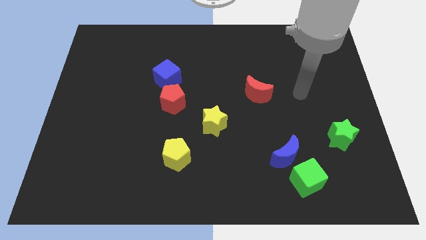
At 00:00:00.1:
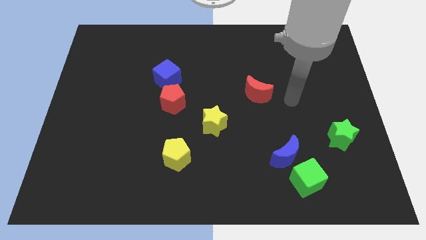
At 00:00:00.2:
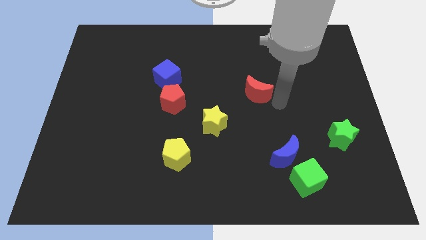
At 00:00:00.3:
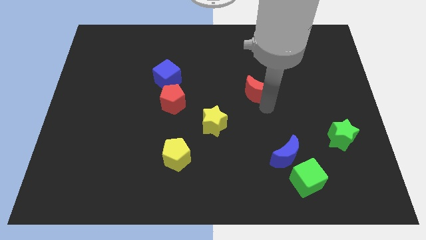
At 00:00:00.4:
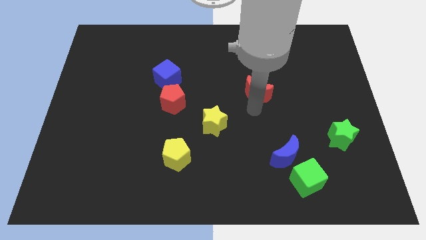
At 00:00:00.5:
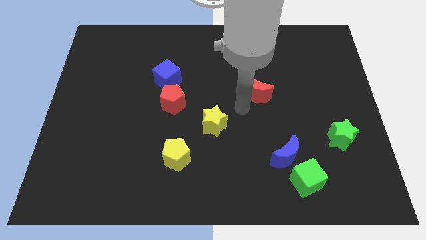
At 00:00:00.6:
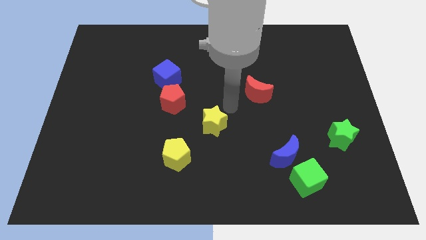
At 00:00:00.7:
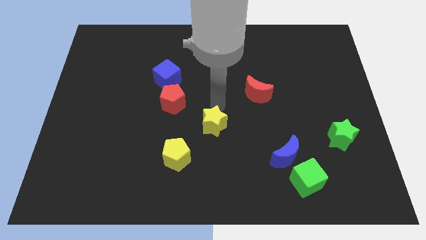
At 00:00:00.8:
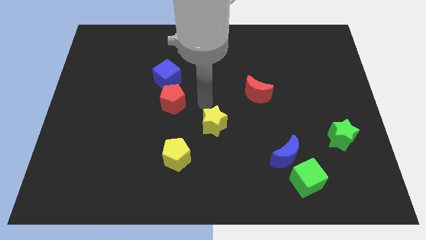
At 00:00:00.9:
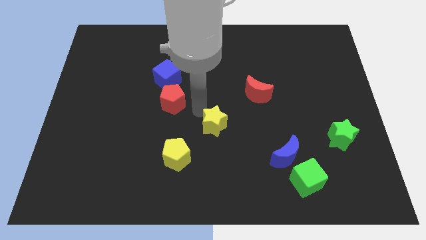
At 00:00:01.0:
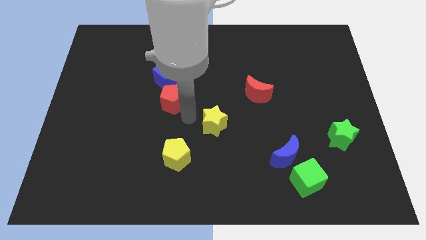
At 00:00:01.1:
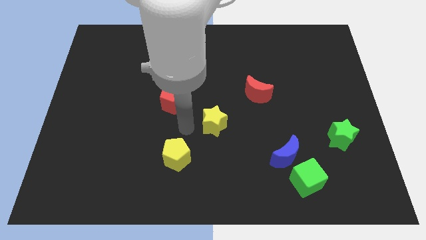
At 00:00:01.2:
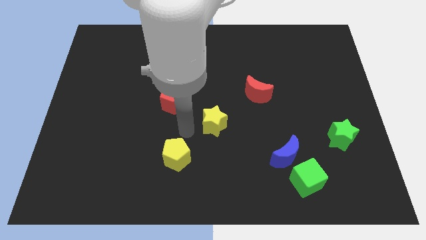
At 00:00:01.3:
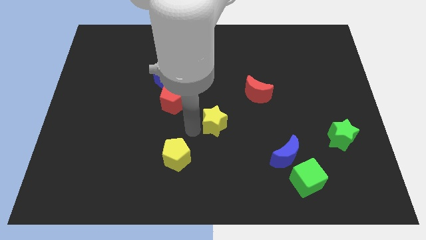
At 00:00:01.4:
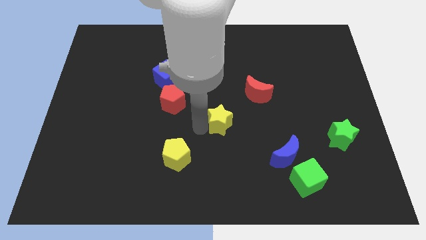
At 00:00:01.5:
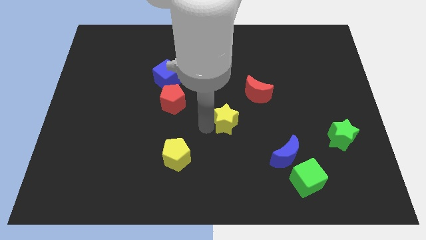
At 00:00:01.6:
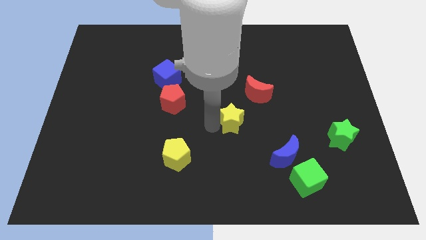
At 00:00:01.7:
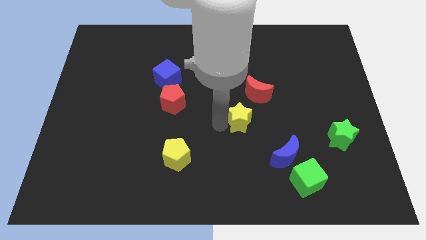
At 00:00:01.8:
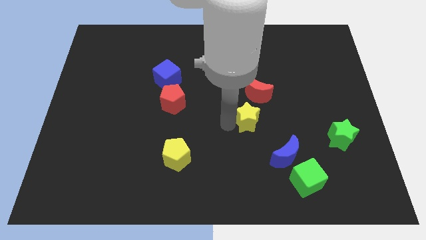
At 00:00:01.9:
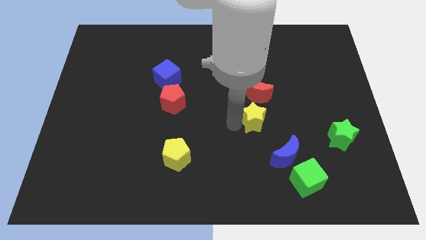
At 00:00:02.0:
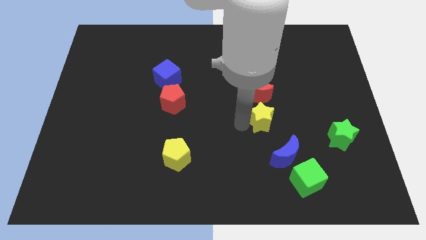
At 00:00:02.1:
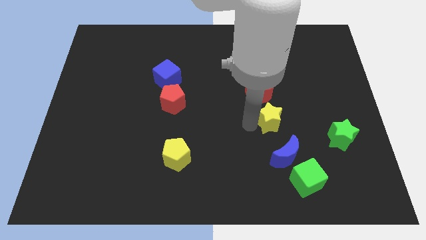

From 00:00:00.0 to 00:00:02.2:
slide the yellow star a little up and right diagonally

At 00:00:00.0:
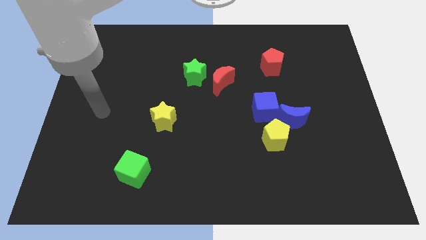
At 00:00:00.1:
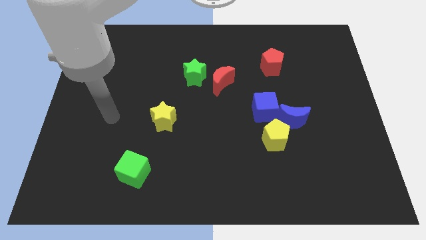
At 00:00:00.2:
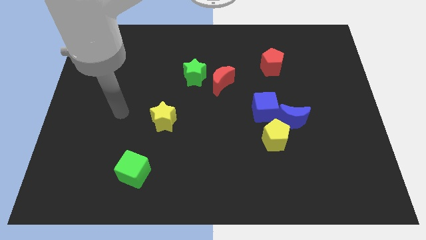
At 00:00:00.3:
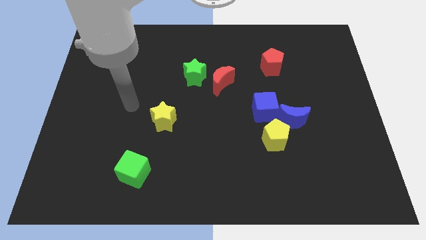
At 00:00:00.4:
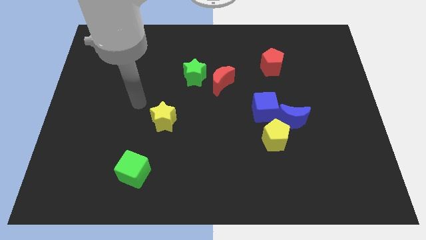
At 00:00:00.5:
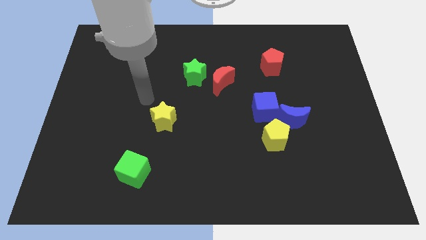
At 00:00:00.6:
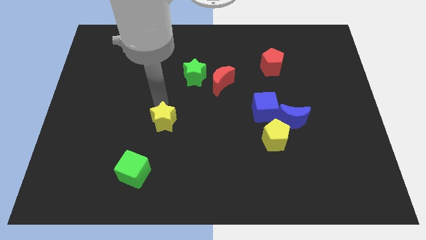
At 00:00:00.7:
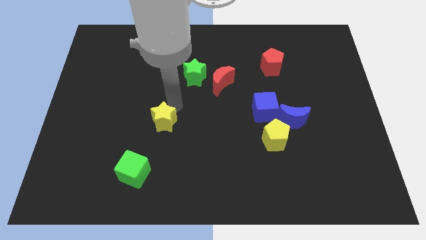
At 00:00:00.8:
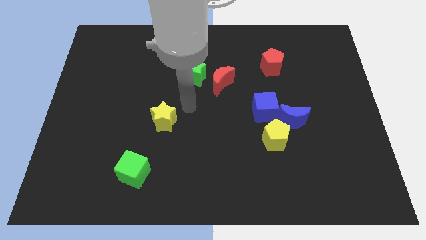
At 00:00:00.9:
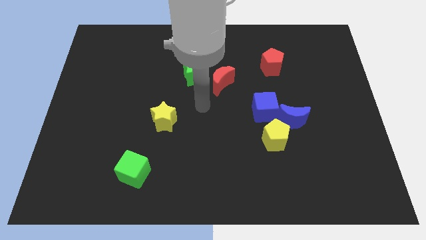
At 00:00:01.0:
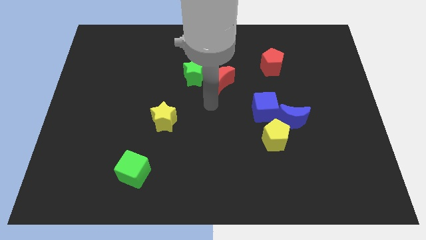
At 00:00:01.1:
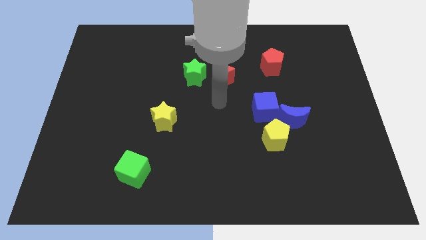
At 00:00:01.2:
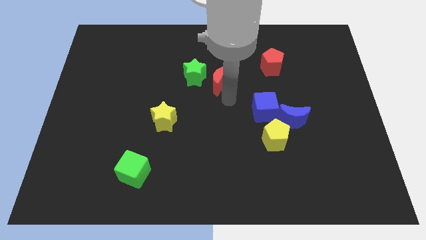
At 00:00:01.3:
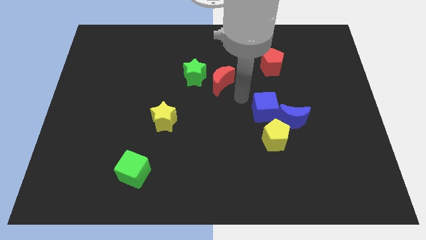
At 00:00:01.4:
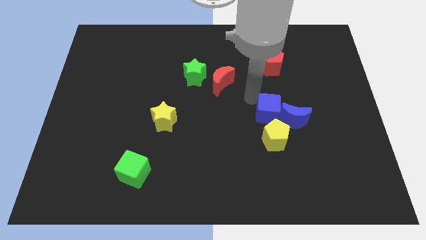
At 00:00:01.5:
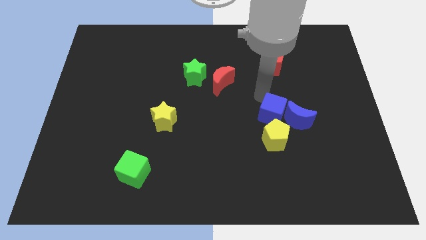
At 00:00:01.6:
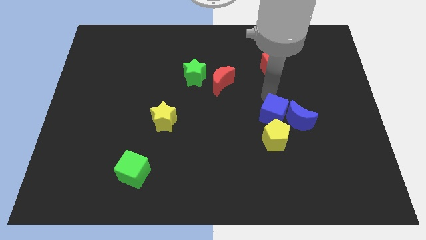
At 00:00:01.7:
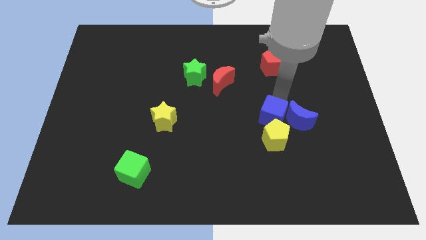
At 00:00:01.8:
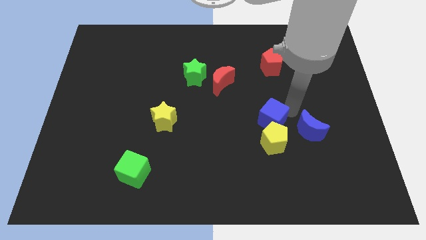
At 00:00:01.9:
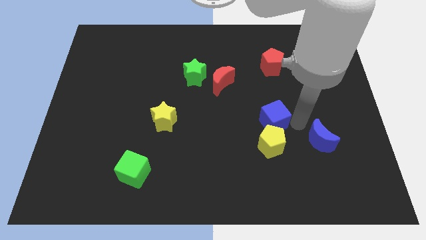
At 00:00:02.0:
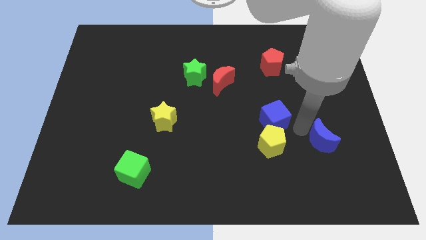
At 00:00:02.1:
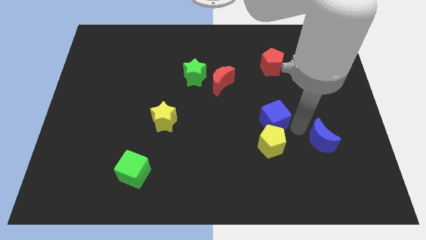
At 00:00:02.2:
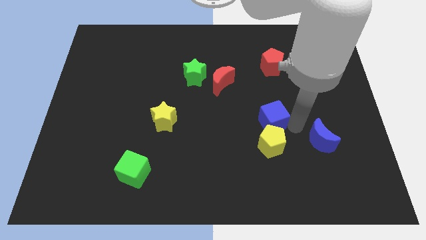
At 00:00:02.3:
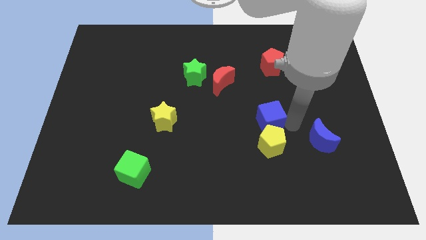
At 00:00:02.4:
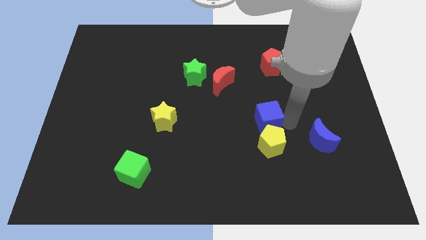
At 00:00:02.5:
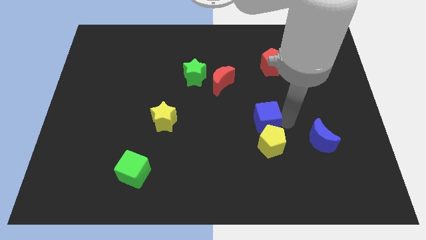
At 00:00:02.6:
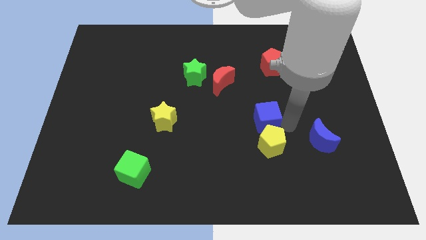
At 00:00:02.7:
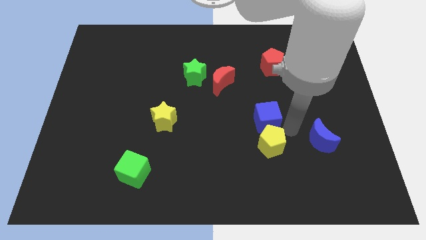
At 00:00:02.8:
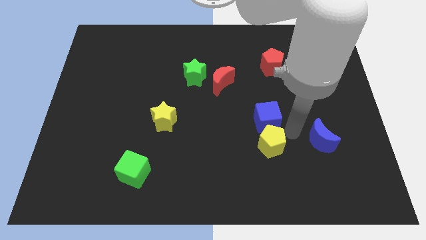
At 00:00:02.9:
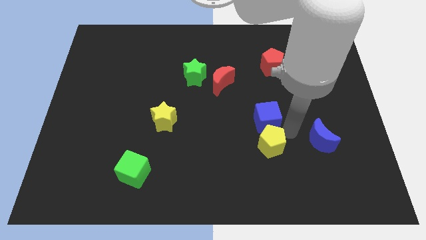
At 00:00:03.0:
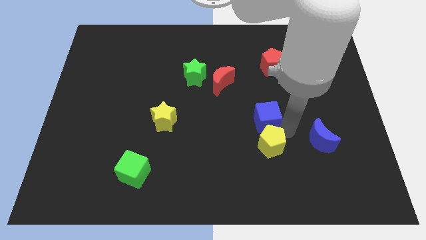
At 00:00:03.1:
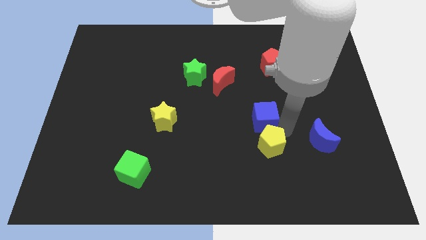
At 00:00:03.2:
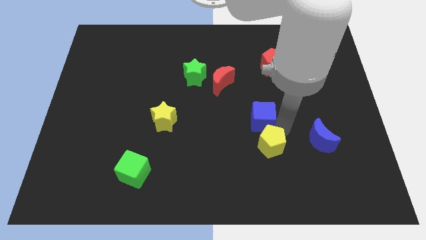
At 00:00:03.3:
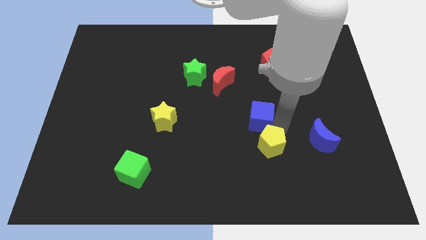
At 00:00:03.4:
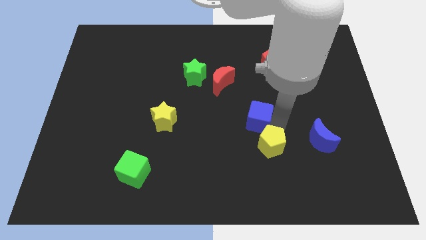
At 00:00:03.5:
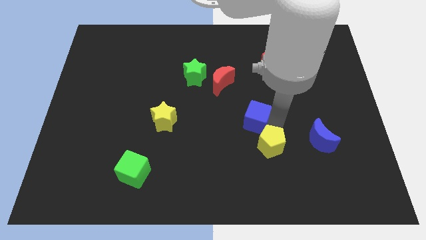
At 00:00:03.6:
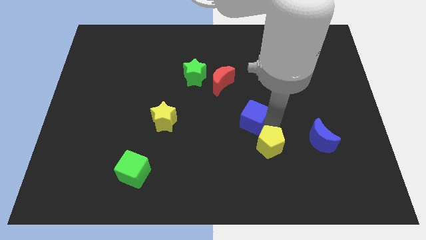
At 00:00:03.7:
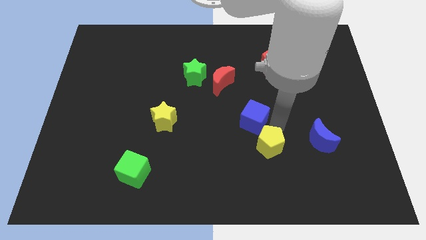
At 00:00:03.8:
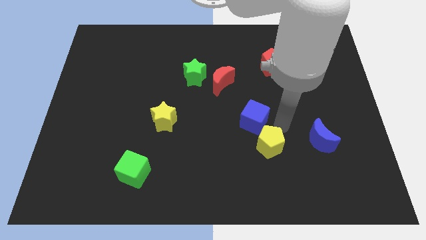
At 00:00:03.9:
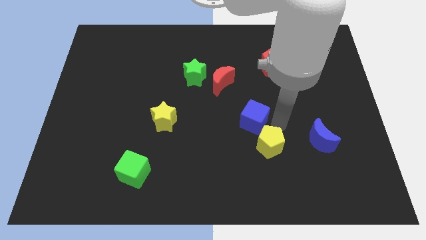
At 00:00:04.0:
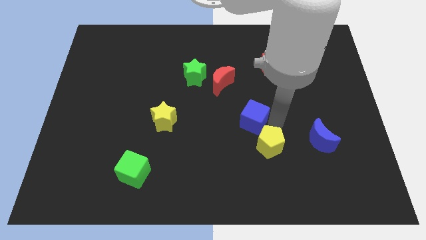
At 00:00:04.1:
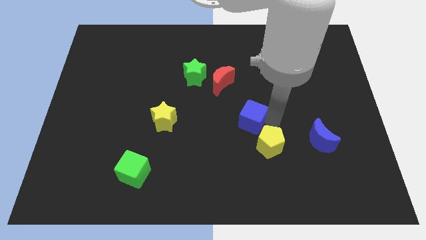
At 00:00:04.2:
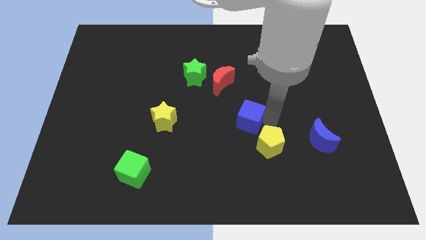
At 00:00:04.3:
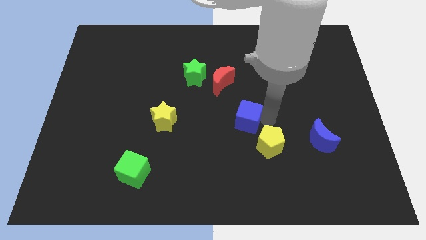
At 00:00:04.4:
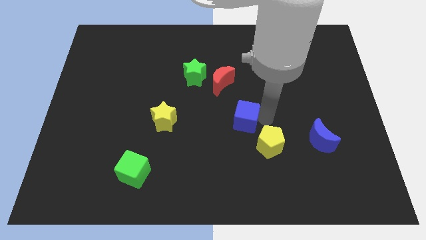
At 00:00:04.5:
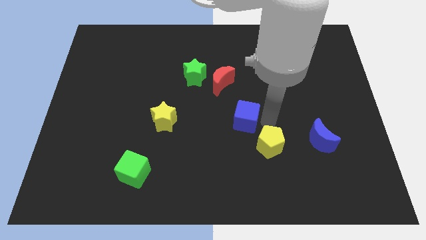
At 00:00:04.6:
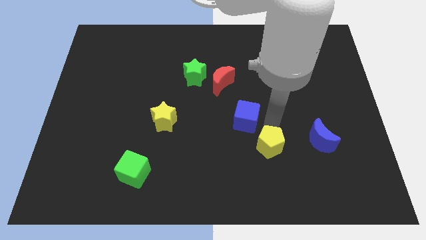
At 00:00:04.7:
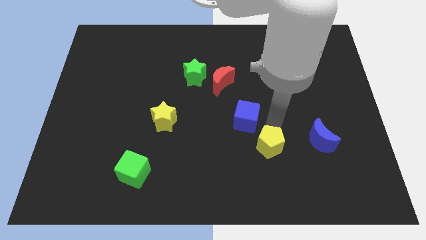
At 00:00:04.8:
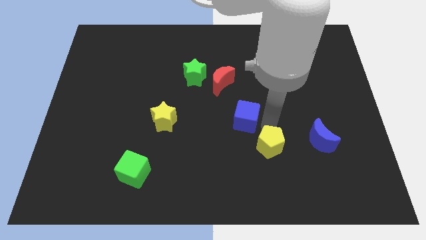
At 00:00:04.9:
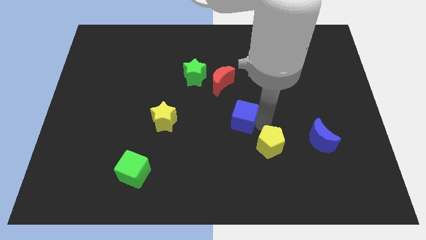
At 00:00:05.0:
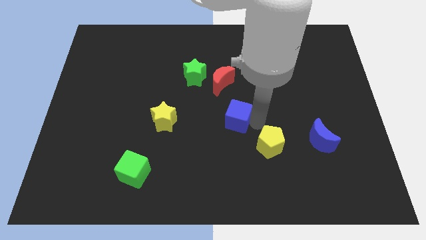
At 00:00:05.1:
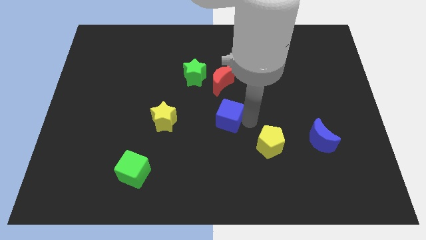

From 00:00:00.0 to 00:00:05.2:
slightly move the blue cube to the left

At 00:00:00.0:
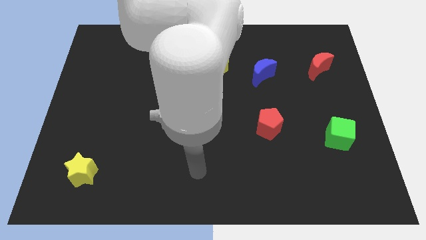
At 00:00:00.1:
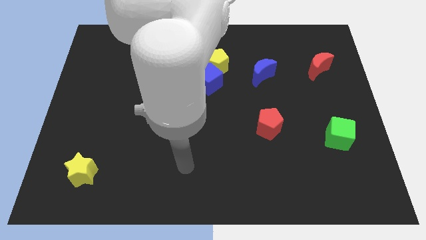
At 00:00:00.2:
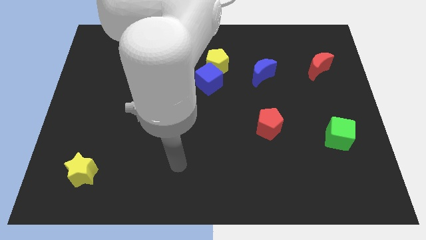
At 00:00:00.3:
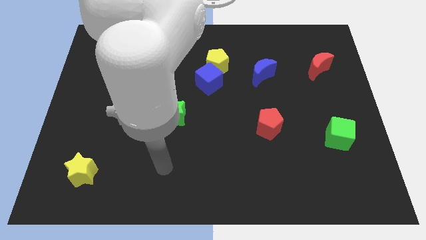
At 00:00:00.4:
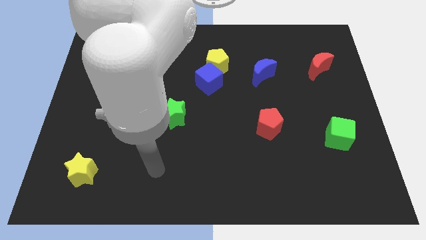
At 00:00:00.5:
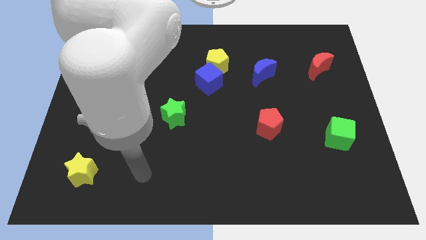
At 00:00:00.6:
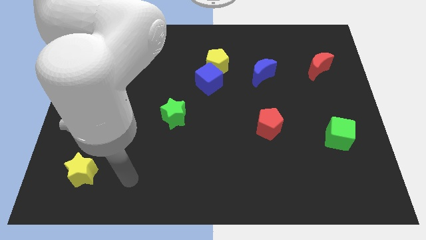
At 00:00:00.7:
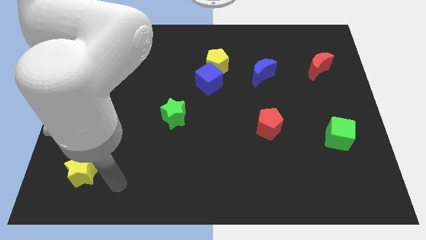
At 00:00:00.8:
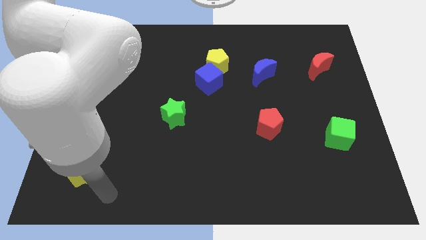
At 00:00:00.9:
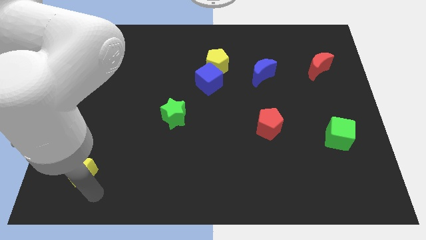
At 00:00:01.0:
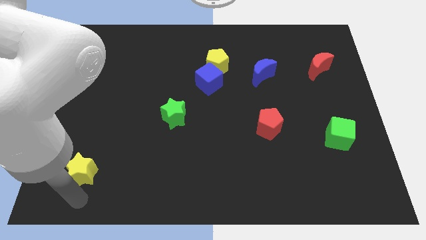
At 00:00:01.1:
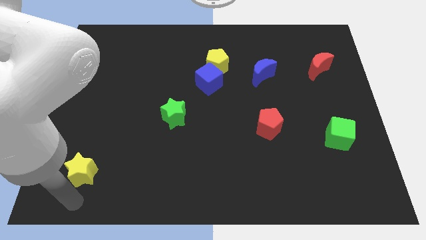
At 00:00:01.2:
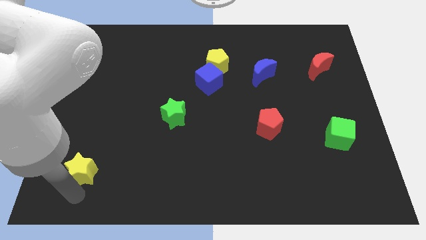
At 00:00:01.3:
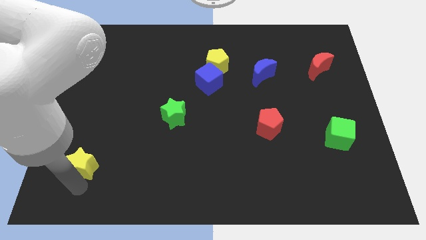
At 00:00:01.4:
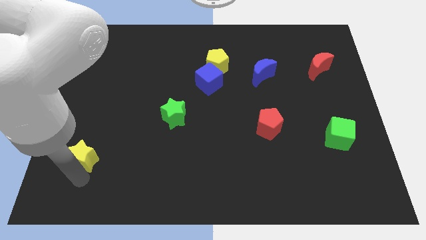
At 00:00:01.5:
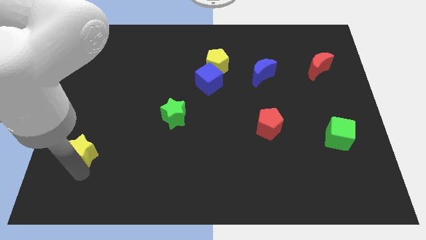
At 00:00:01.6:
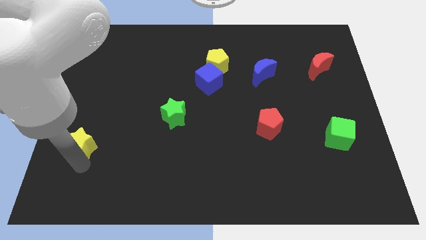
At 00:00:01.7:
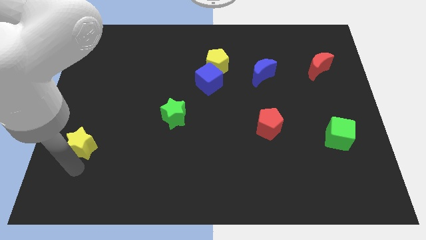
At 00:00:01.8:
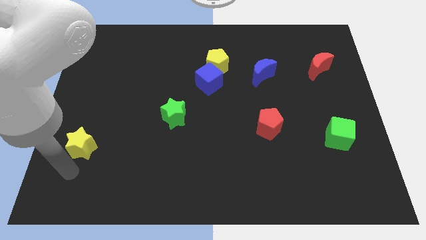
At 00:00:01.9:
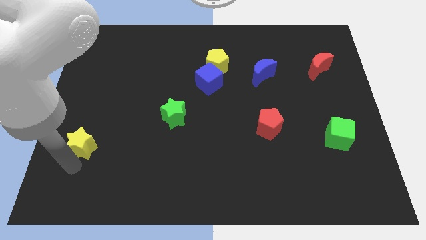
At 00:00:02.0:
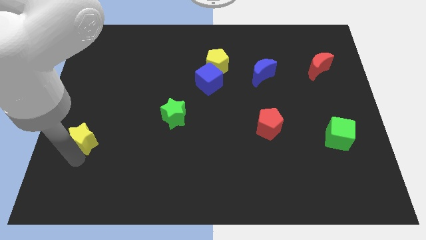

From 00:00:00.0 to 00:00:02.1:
move the yellow star slightly up
